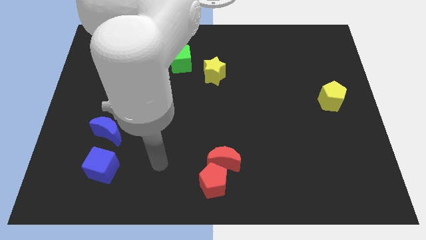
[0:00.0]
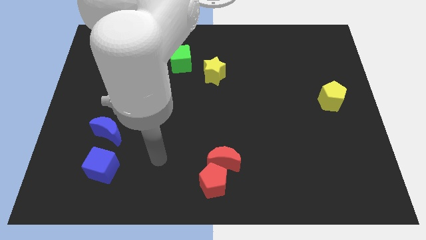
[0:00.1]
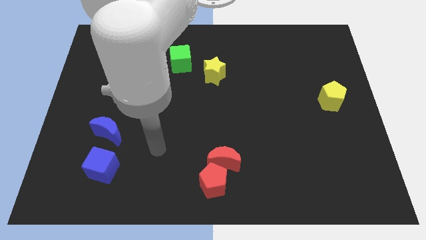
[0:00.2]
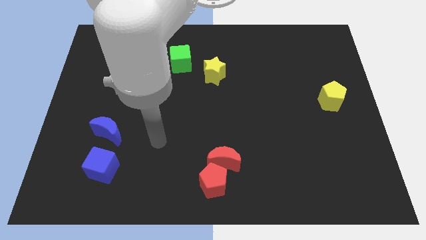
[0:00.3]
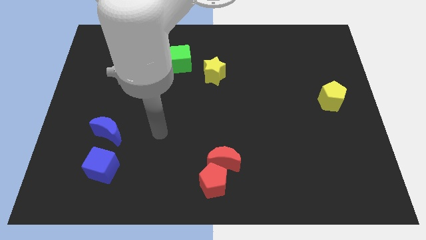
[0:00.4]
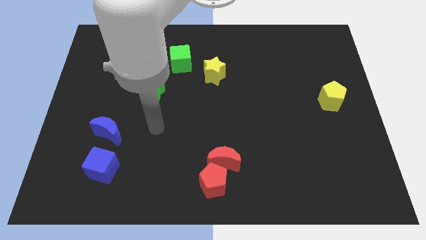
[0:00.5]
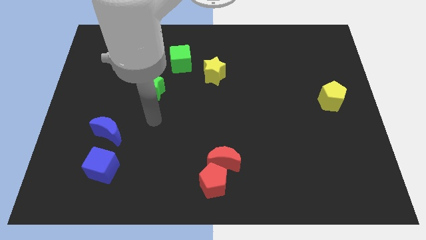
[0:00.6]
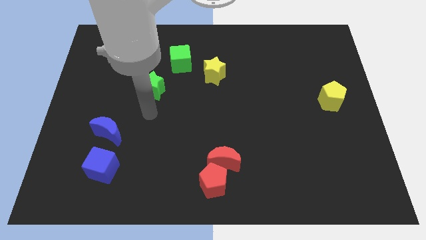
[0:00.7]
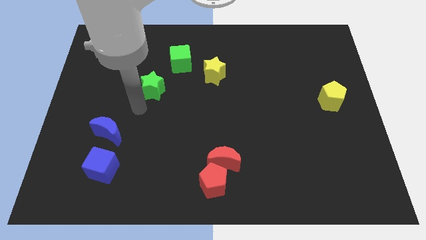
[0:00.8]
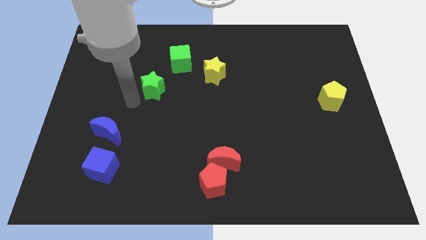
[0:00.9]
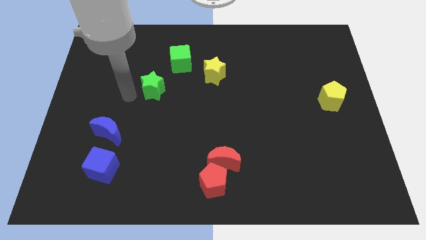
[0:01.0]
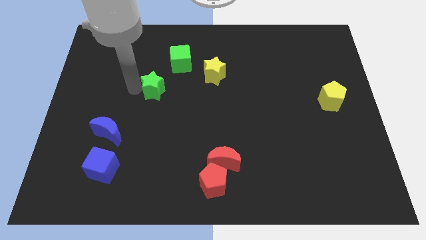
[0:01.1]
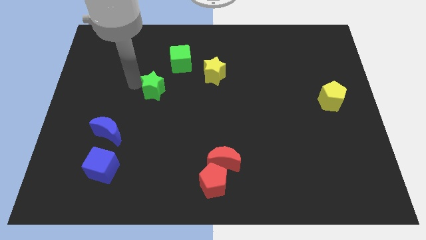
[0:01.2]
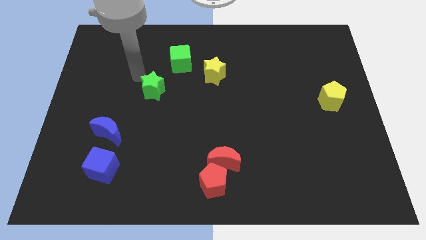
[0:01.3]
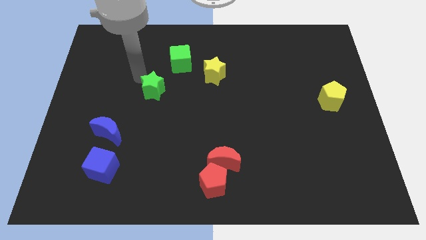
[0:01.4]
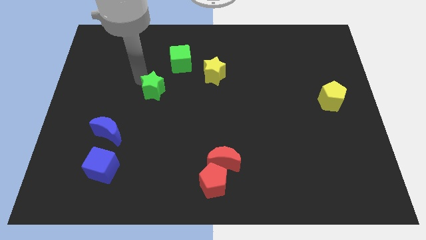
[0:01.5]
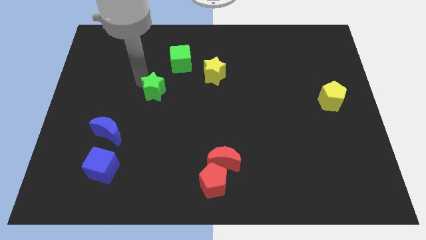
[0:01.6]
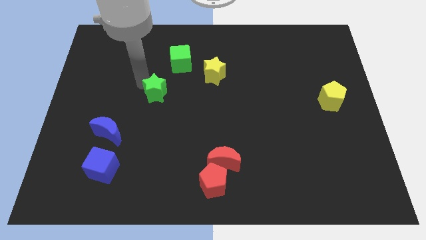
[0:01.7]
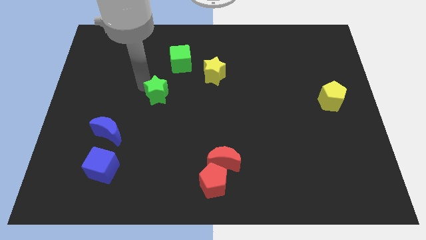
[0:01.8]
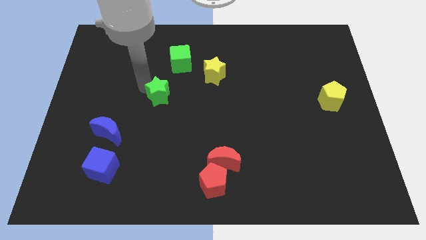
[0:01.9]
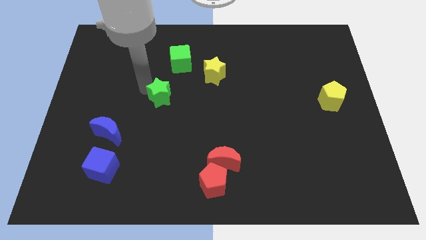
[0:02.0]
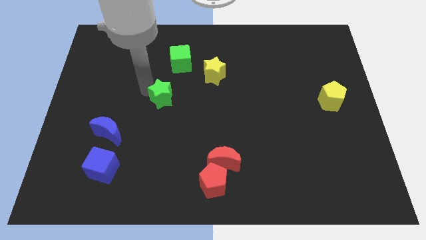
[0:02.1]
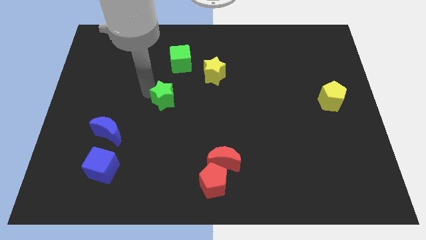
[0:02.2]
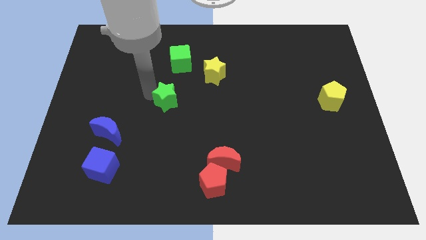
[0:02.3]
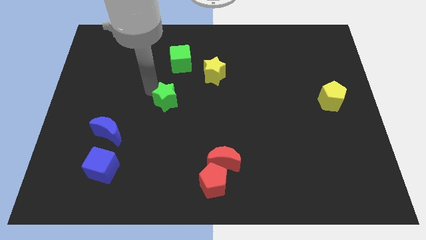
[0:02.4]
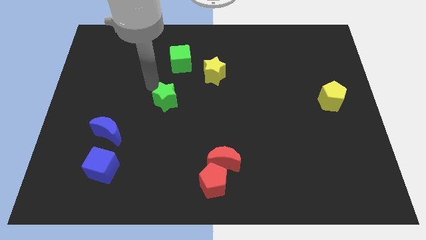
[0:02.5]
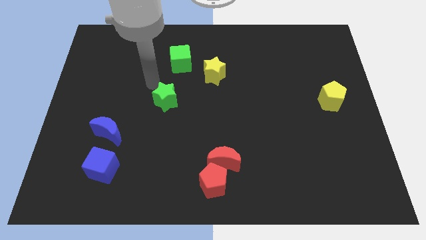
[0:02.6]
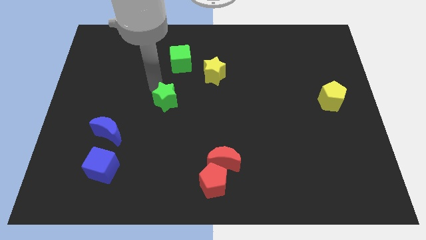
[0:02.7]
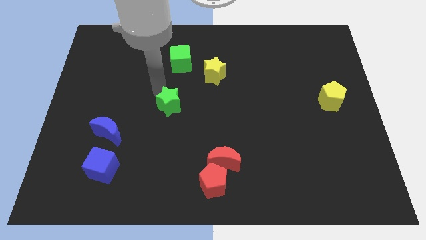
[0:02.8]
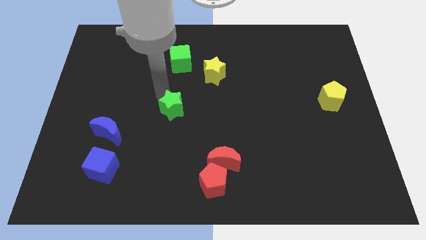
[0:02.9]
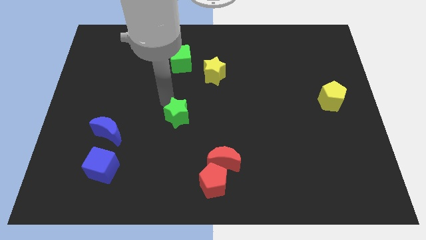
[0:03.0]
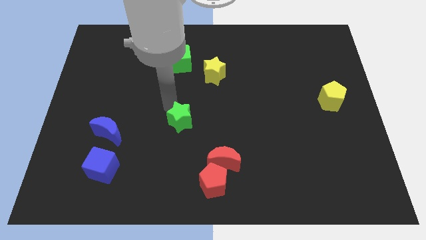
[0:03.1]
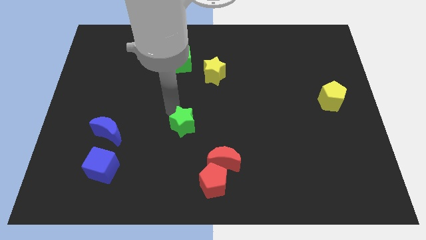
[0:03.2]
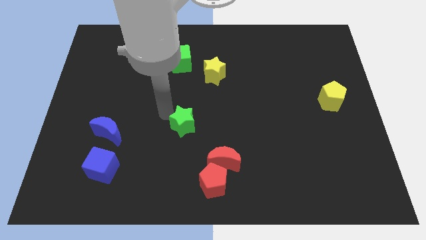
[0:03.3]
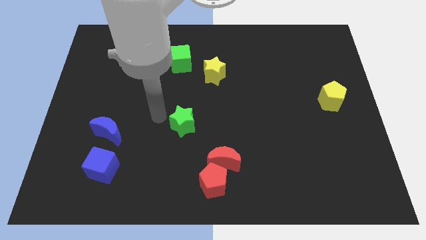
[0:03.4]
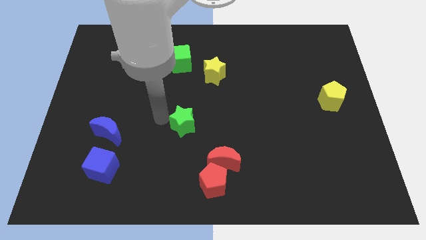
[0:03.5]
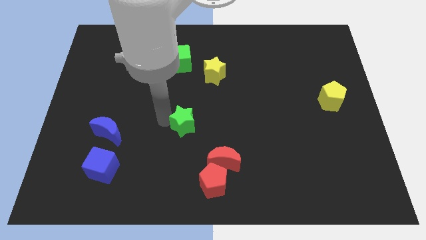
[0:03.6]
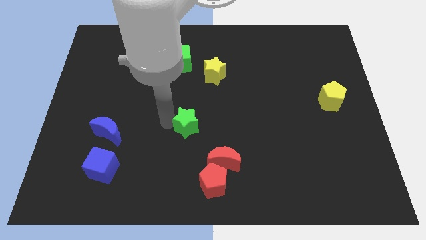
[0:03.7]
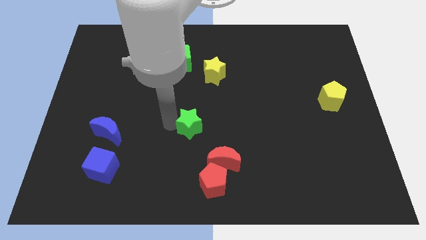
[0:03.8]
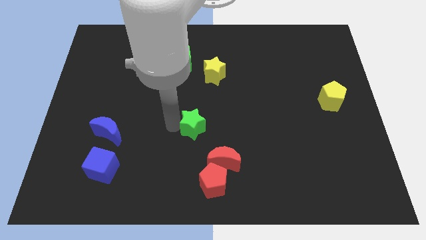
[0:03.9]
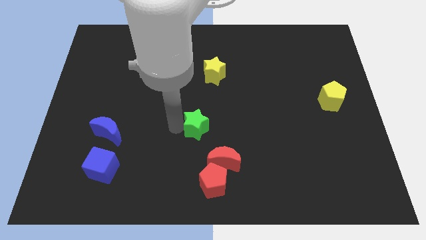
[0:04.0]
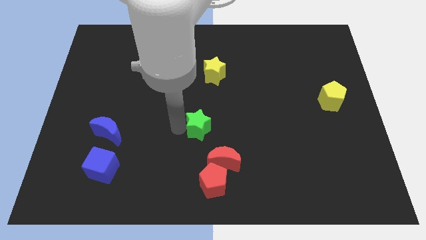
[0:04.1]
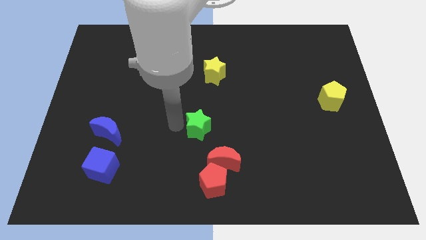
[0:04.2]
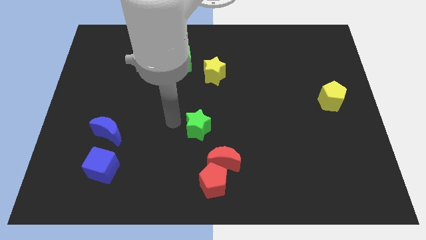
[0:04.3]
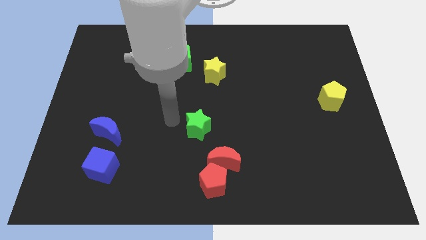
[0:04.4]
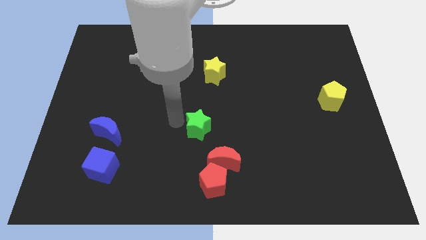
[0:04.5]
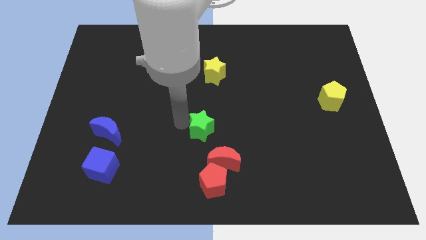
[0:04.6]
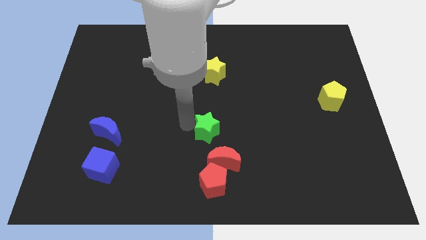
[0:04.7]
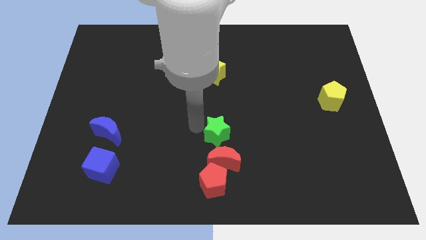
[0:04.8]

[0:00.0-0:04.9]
push the green star downwards and then to the right

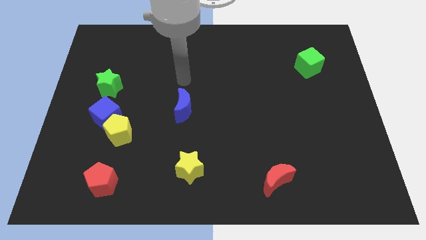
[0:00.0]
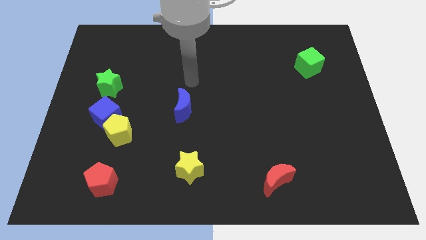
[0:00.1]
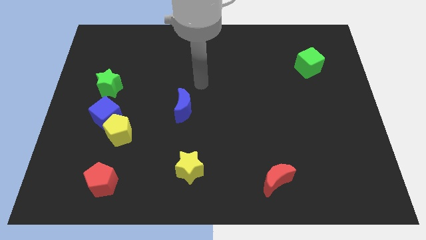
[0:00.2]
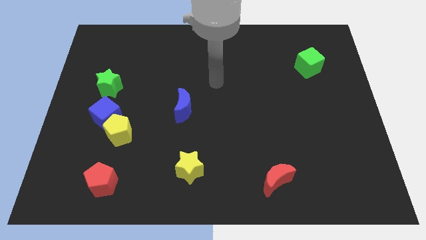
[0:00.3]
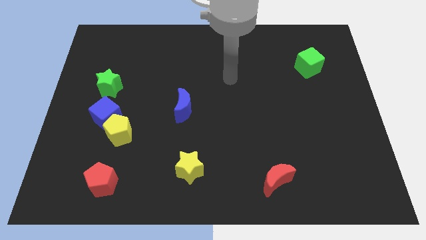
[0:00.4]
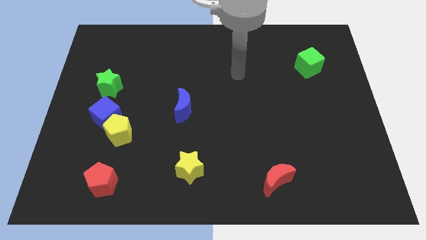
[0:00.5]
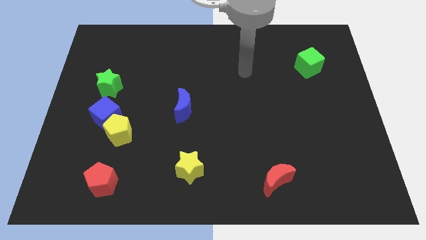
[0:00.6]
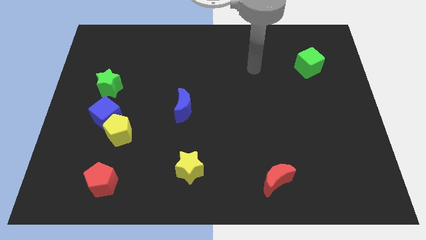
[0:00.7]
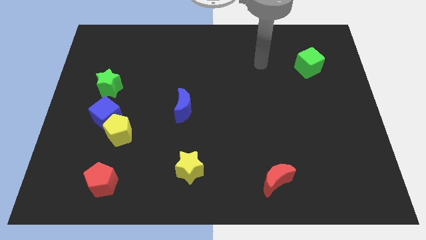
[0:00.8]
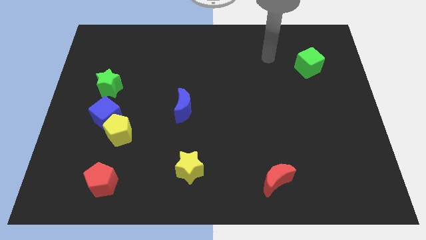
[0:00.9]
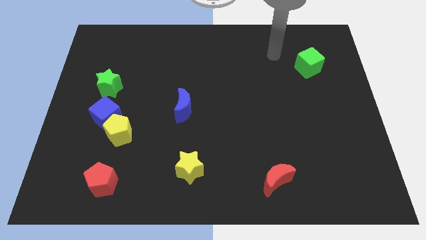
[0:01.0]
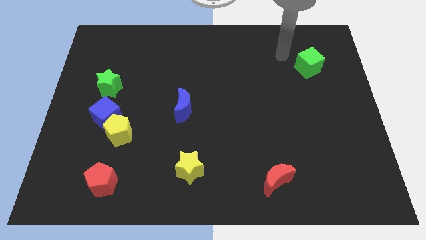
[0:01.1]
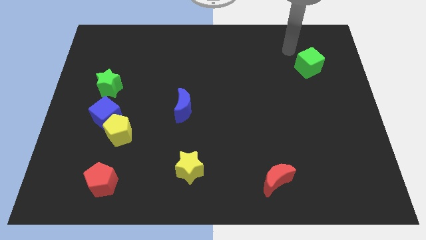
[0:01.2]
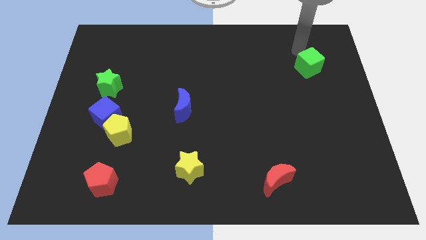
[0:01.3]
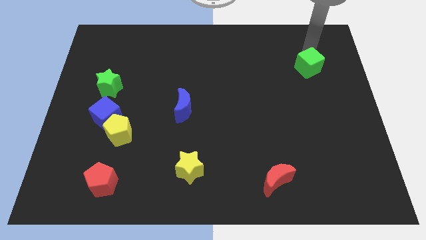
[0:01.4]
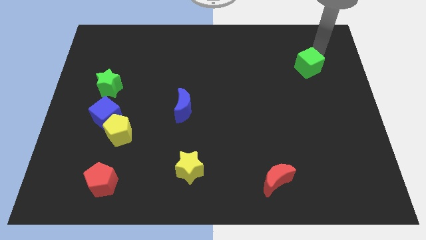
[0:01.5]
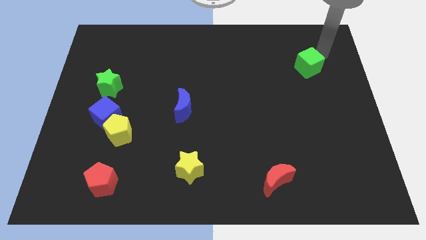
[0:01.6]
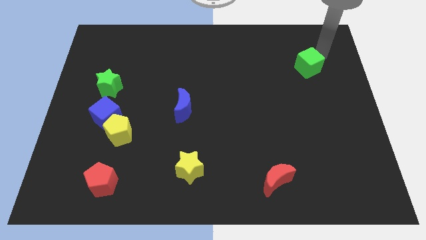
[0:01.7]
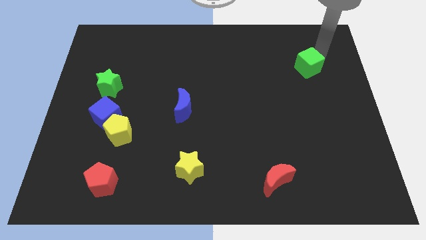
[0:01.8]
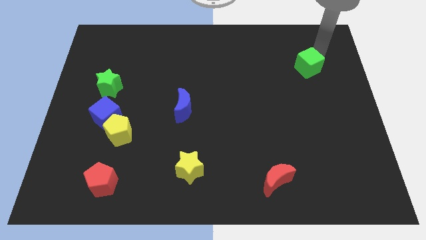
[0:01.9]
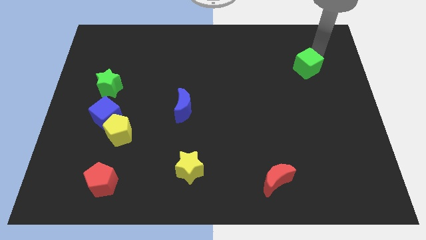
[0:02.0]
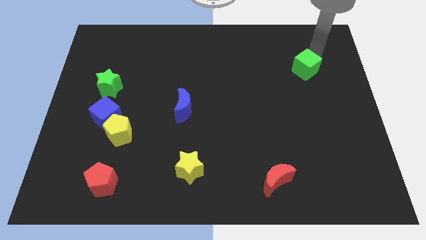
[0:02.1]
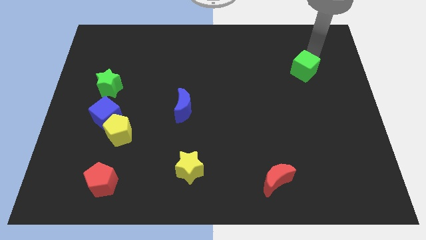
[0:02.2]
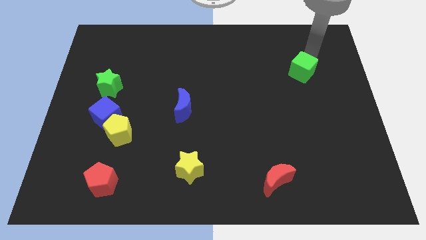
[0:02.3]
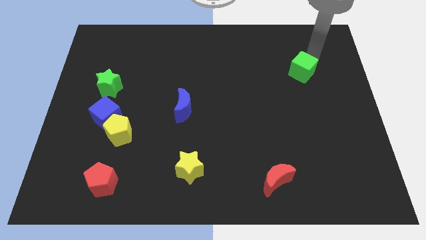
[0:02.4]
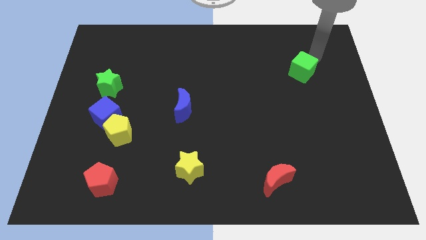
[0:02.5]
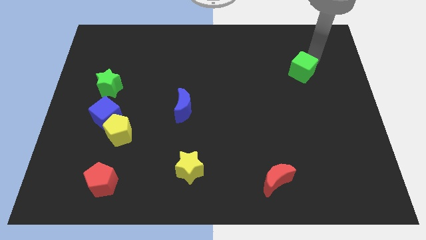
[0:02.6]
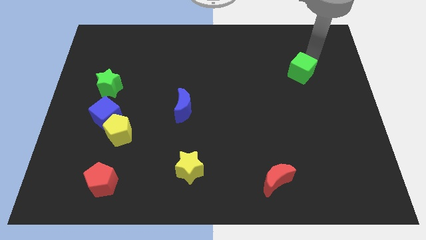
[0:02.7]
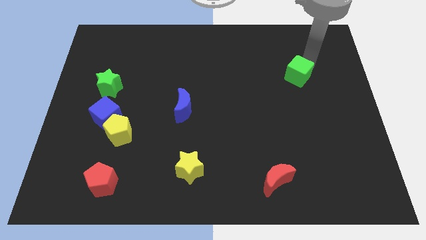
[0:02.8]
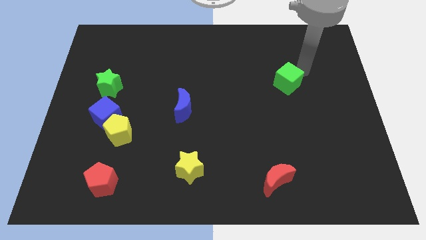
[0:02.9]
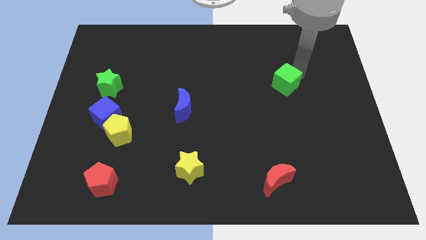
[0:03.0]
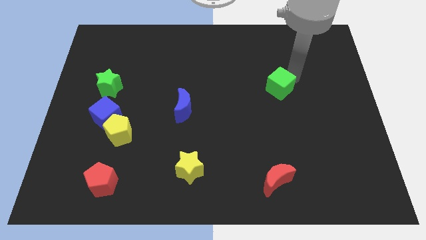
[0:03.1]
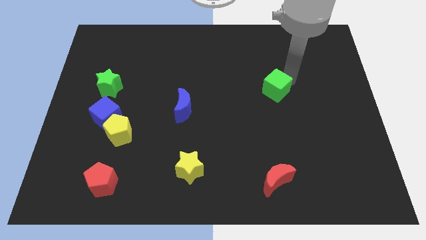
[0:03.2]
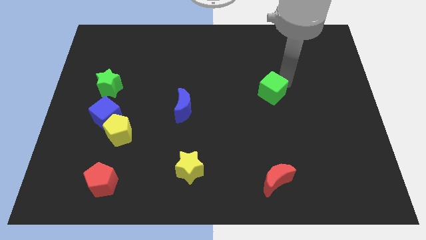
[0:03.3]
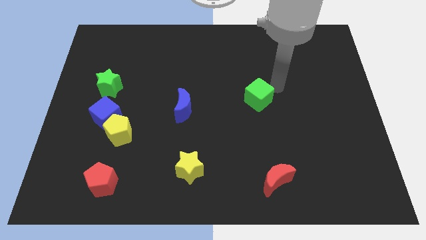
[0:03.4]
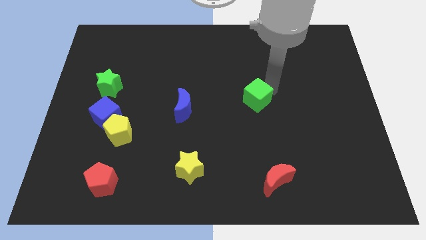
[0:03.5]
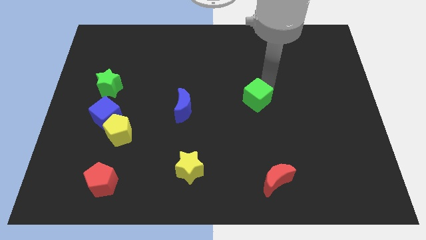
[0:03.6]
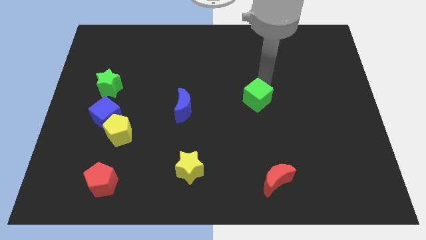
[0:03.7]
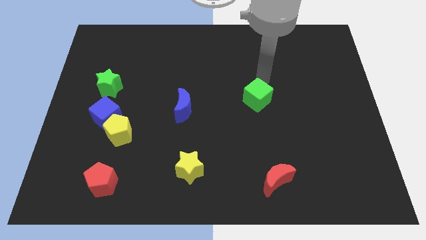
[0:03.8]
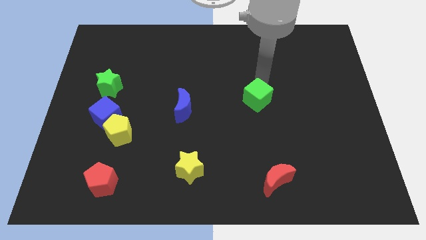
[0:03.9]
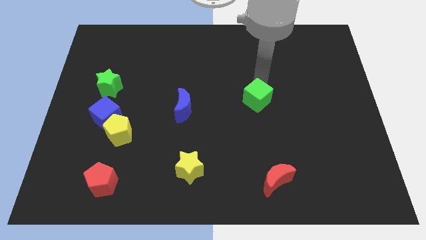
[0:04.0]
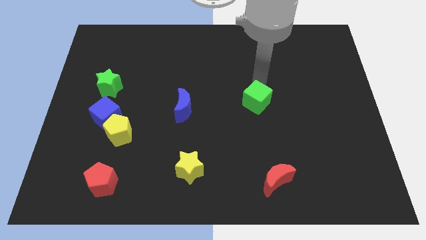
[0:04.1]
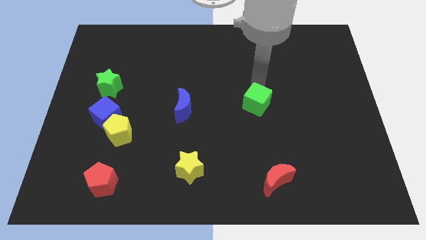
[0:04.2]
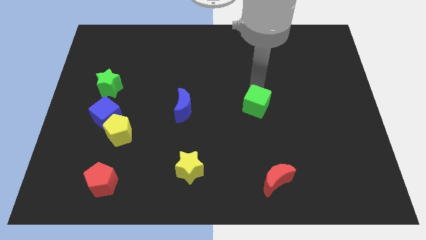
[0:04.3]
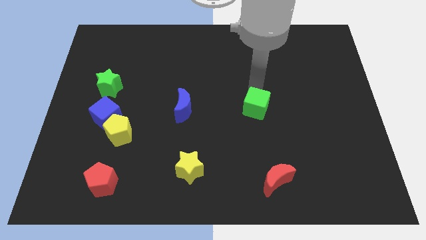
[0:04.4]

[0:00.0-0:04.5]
move the green cube diagonally downwards and to the left
